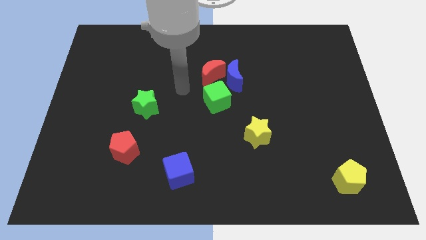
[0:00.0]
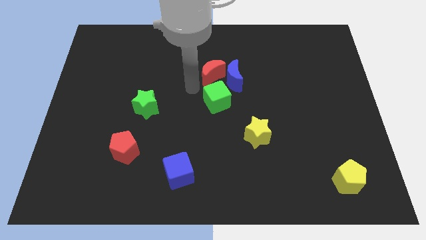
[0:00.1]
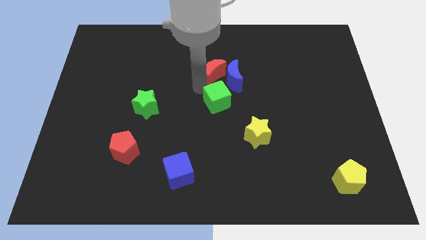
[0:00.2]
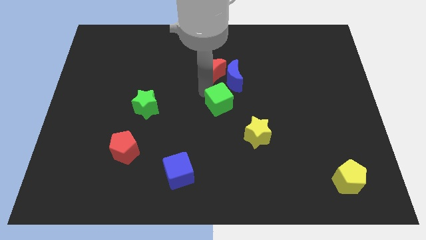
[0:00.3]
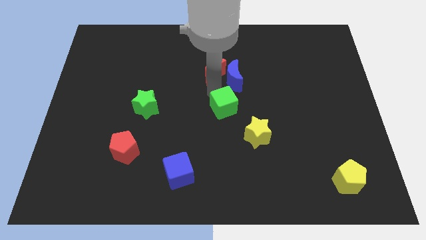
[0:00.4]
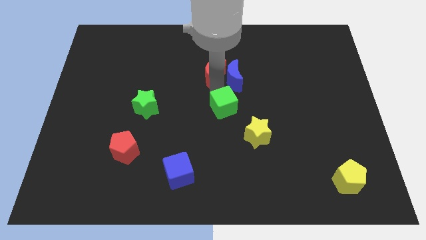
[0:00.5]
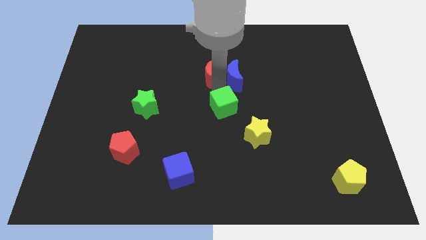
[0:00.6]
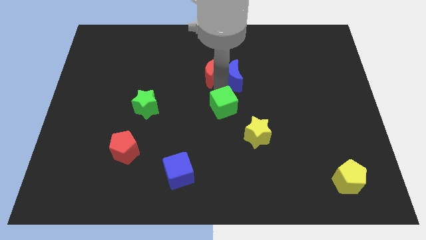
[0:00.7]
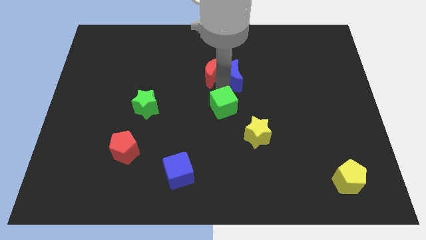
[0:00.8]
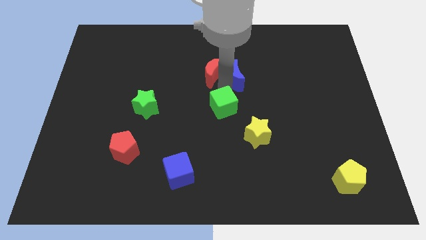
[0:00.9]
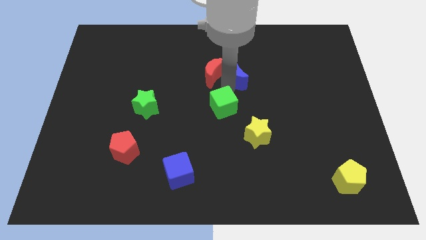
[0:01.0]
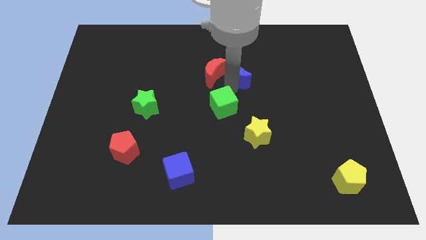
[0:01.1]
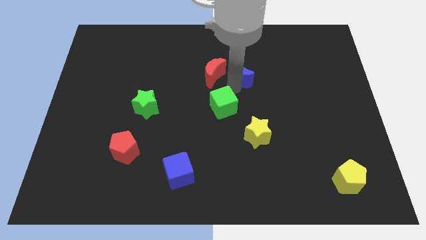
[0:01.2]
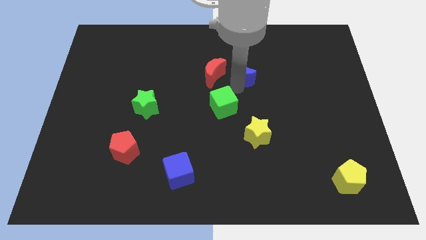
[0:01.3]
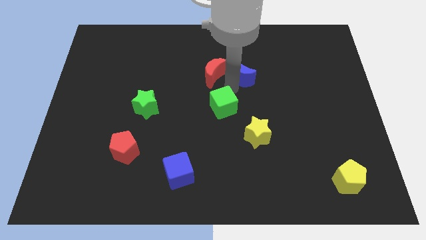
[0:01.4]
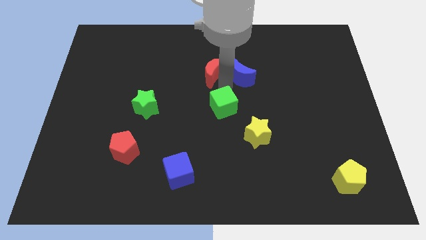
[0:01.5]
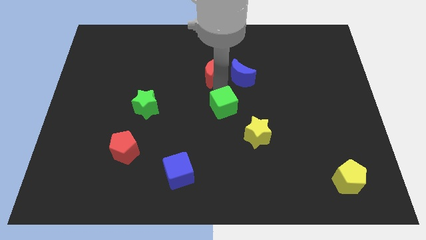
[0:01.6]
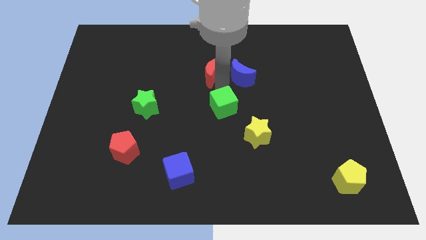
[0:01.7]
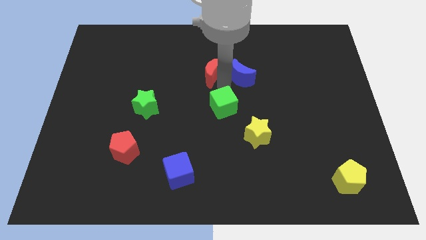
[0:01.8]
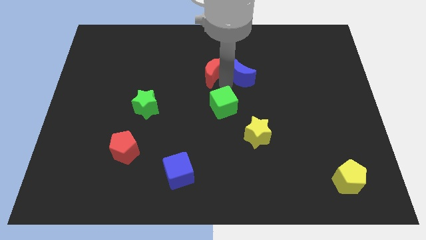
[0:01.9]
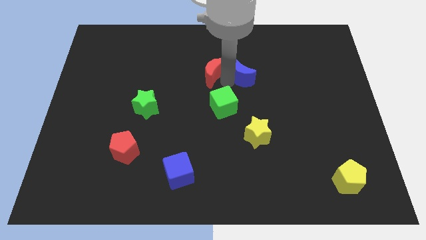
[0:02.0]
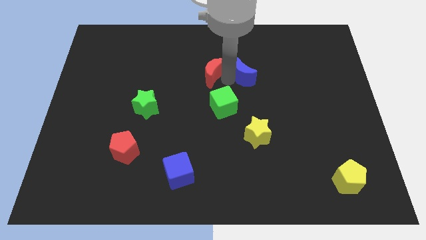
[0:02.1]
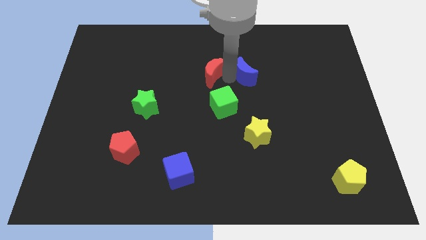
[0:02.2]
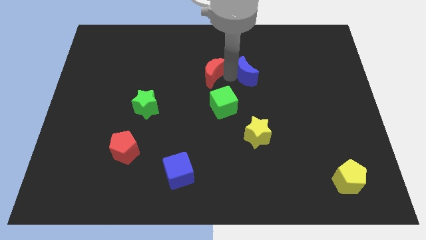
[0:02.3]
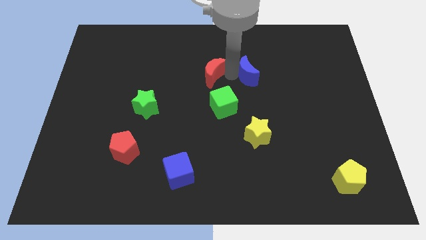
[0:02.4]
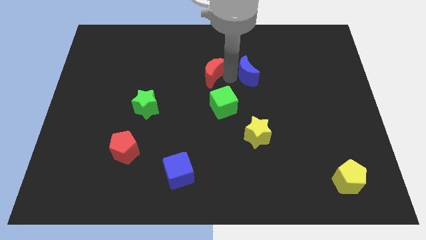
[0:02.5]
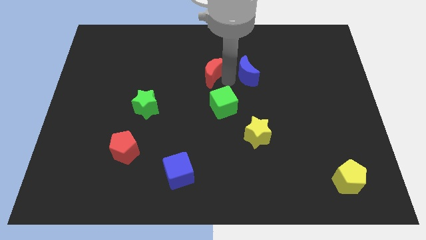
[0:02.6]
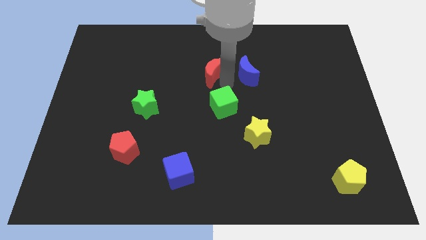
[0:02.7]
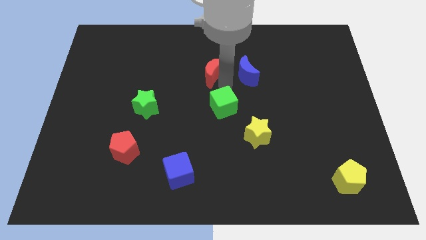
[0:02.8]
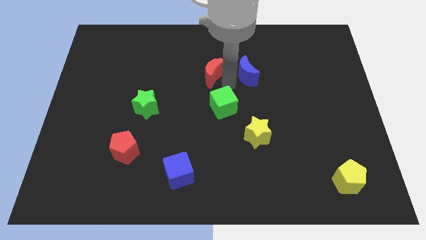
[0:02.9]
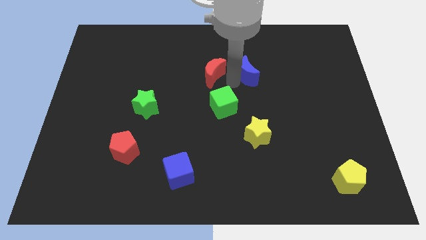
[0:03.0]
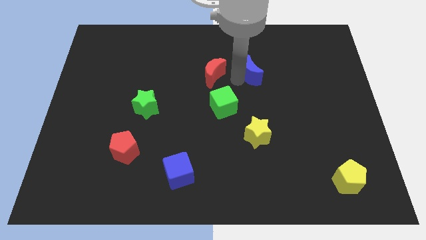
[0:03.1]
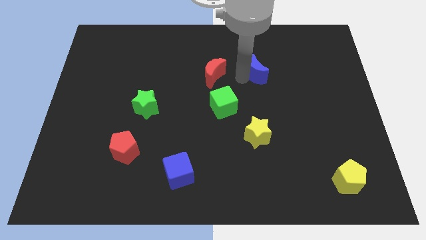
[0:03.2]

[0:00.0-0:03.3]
move the blue moon away from the red moon and green cube

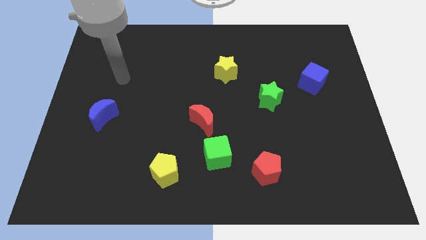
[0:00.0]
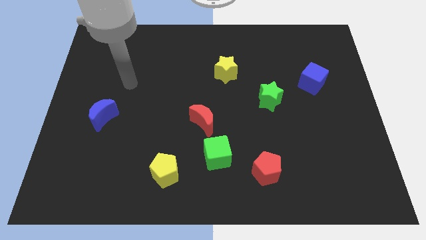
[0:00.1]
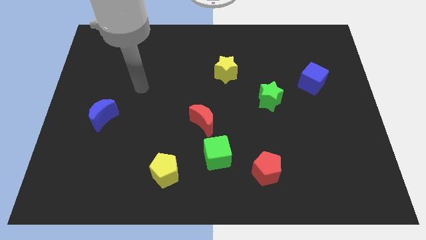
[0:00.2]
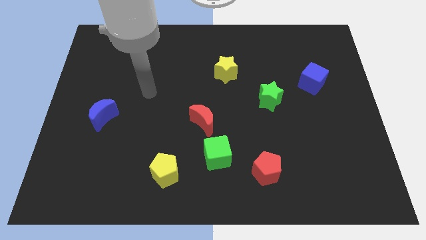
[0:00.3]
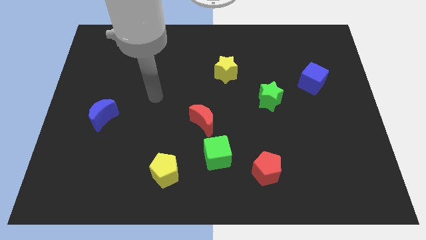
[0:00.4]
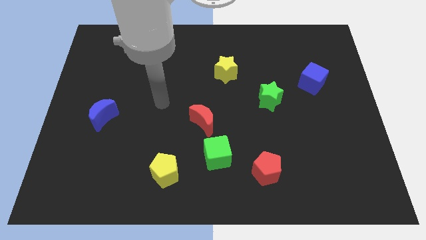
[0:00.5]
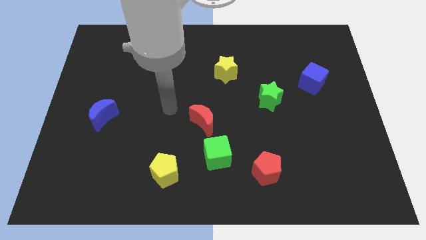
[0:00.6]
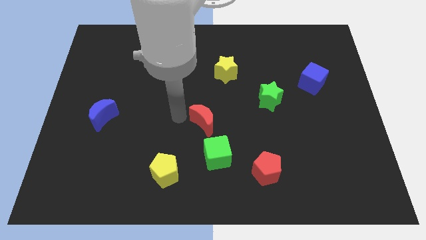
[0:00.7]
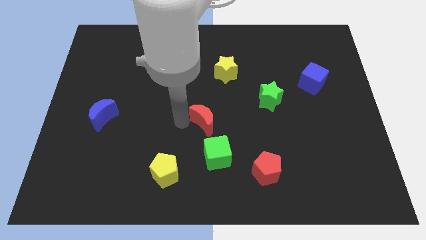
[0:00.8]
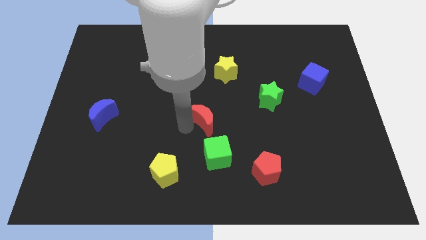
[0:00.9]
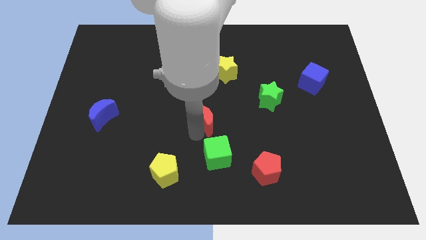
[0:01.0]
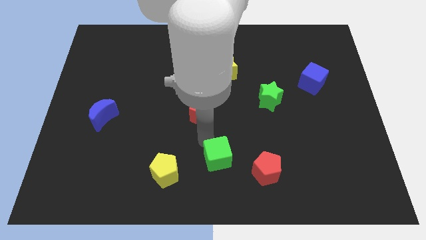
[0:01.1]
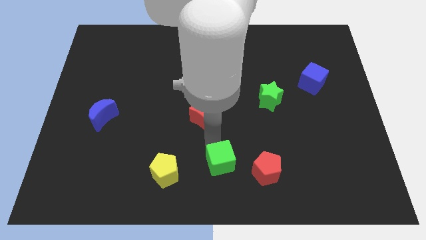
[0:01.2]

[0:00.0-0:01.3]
pull the red moon apart from the green cube

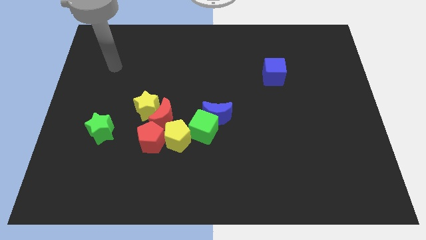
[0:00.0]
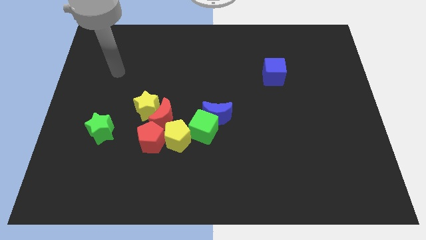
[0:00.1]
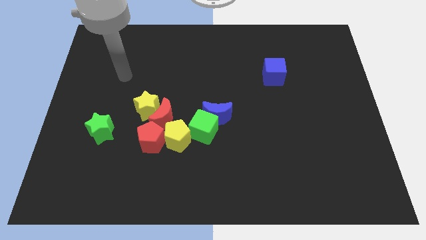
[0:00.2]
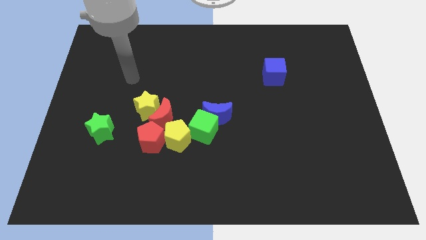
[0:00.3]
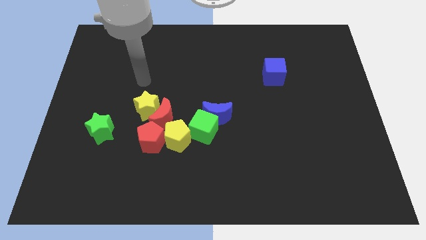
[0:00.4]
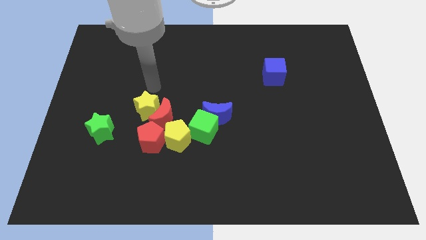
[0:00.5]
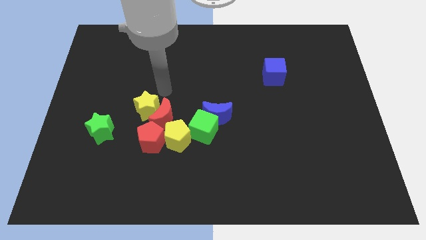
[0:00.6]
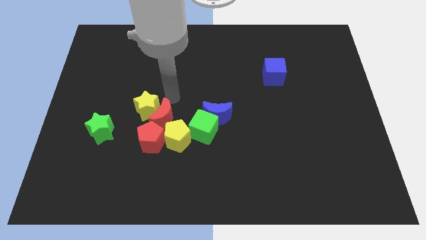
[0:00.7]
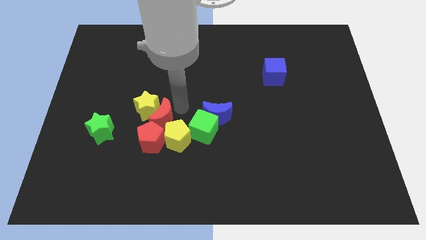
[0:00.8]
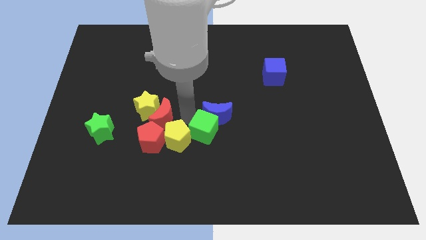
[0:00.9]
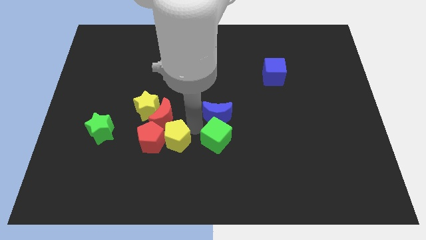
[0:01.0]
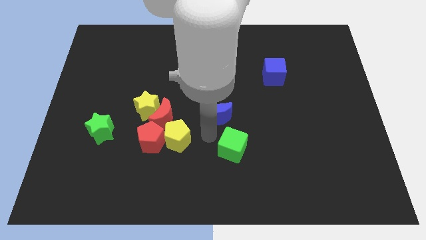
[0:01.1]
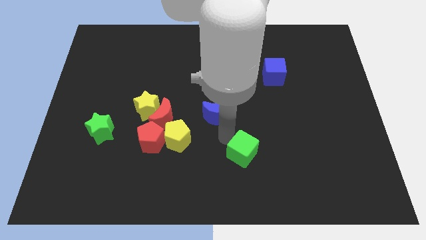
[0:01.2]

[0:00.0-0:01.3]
separate the blue moon from the green cube

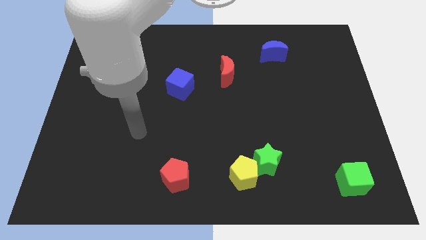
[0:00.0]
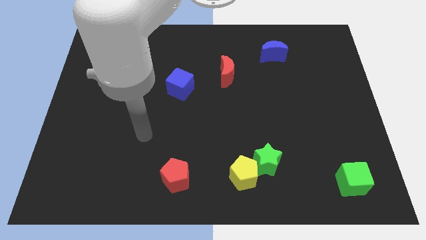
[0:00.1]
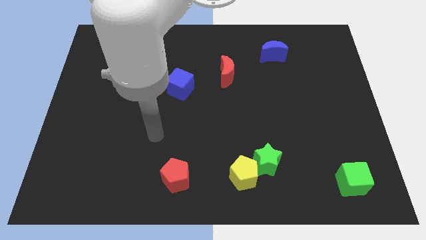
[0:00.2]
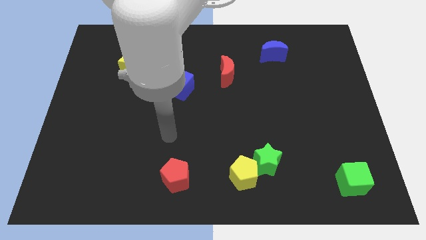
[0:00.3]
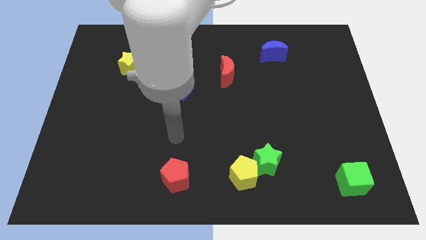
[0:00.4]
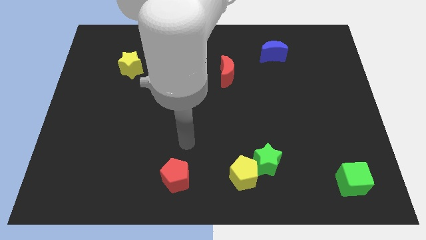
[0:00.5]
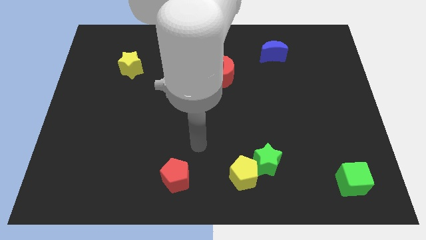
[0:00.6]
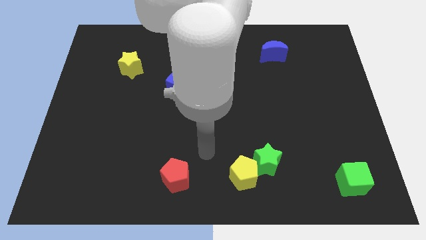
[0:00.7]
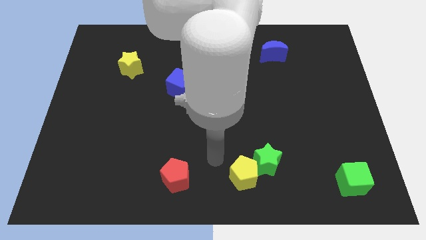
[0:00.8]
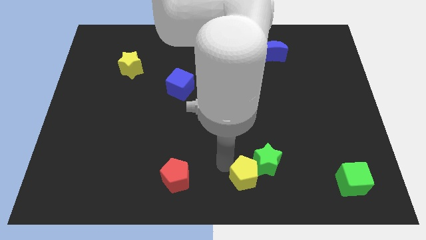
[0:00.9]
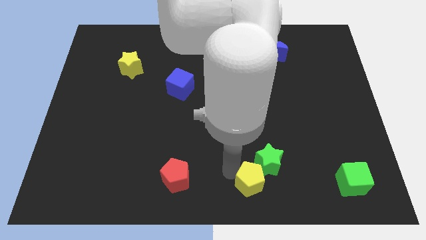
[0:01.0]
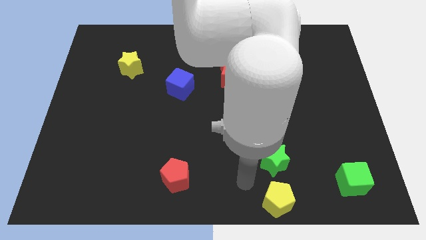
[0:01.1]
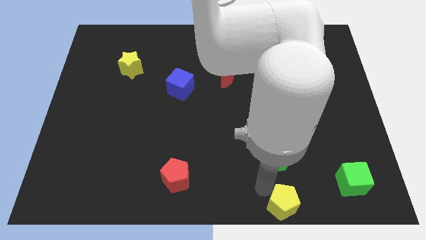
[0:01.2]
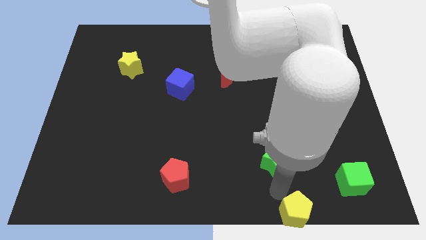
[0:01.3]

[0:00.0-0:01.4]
move the green star away from the yellow pentagon

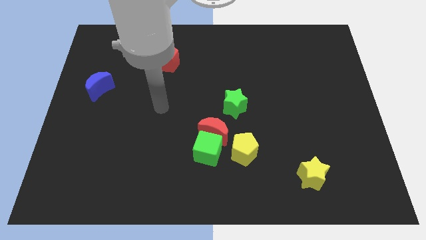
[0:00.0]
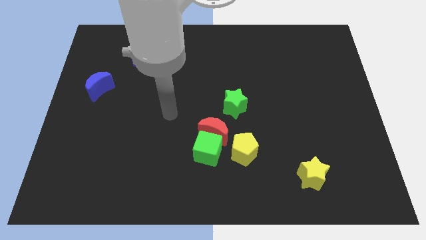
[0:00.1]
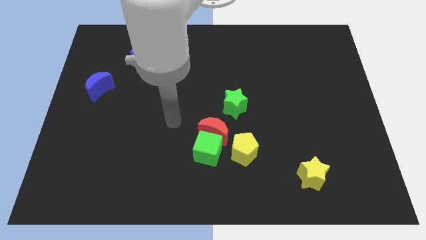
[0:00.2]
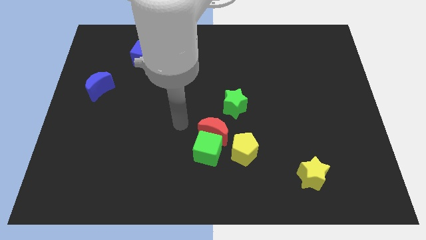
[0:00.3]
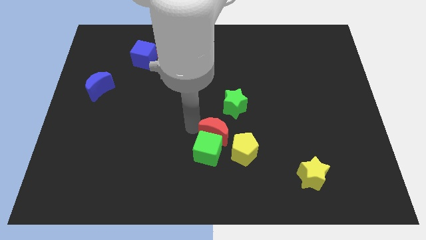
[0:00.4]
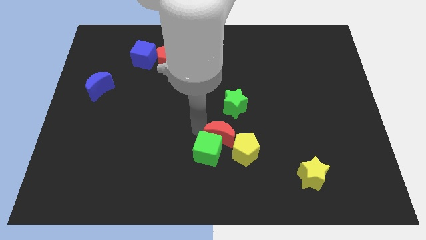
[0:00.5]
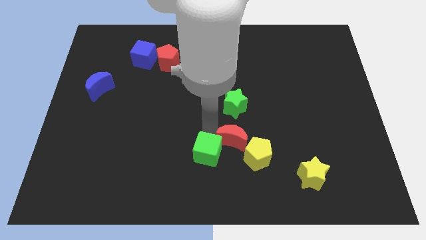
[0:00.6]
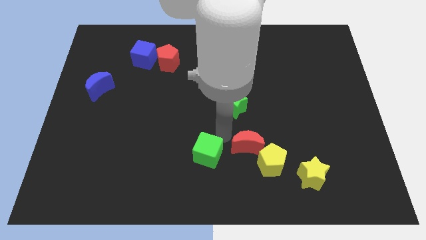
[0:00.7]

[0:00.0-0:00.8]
separate the green cube from the red moon and yellow pentagon

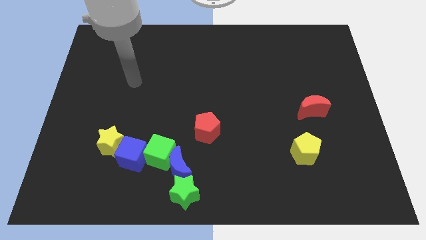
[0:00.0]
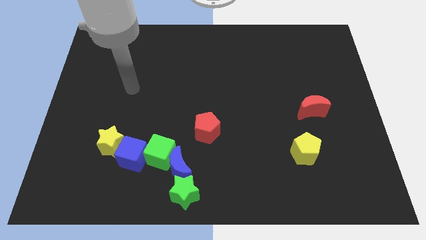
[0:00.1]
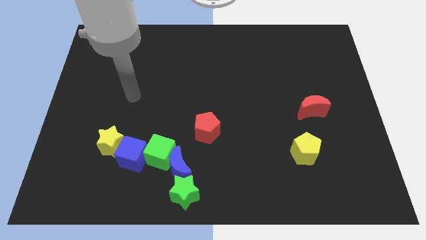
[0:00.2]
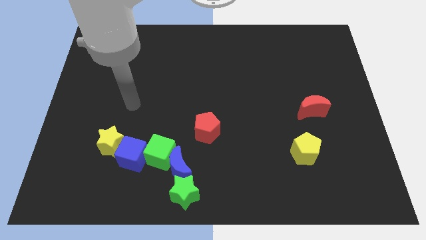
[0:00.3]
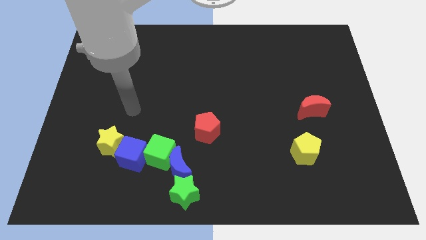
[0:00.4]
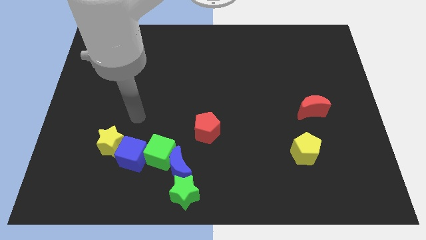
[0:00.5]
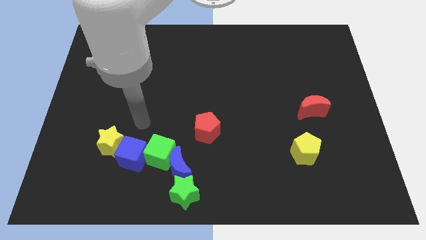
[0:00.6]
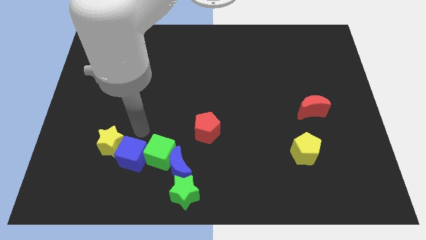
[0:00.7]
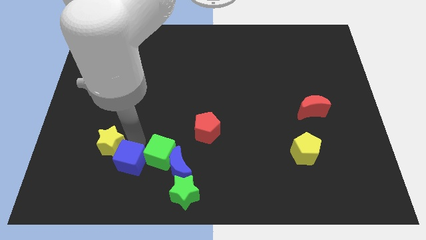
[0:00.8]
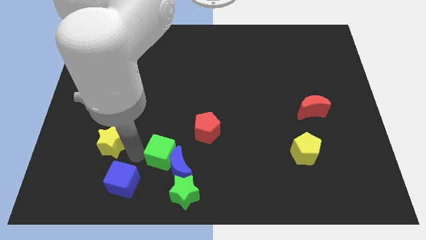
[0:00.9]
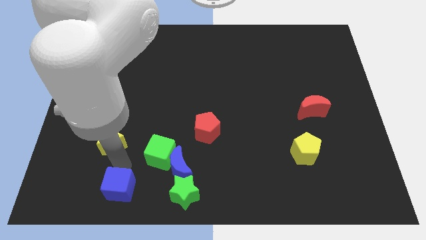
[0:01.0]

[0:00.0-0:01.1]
pull the yellow star apart from the blue cube

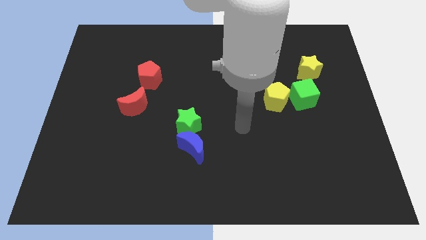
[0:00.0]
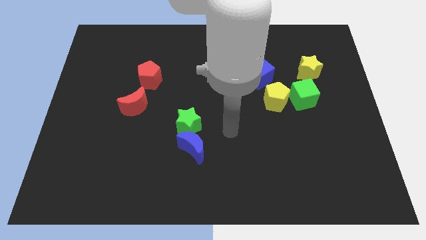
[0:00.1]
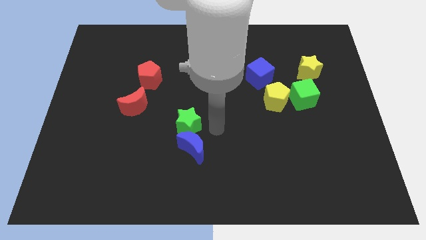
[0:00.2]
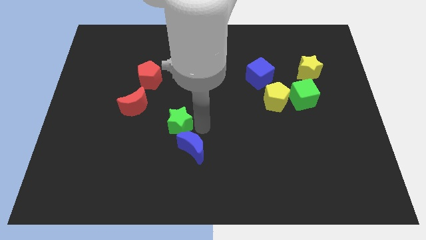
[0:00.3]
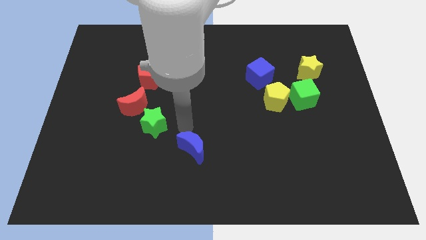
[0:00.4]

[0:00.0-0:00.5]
move the blue moon away from the green star
